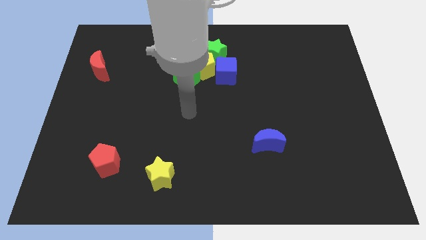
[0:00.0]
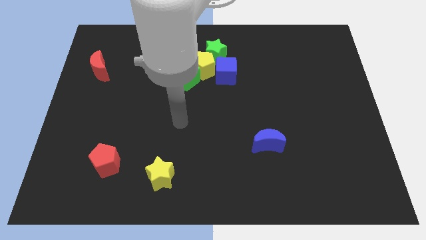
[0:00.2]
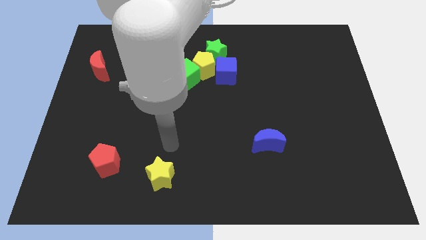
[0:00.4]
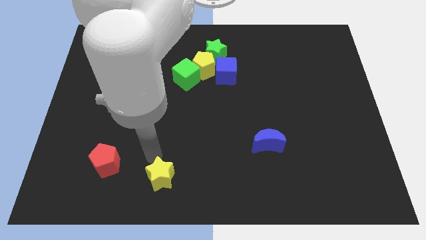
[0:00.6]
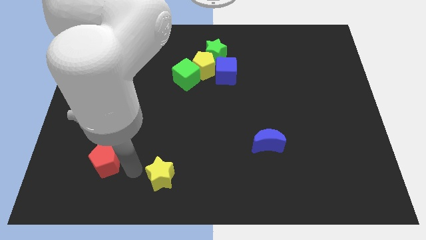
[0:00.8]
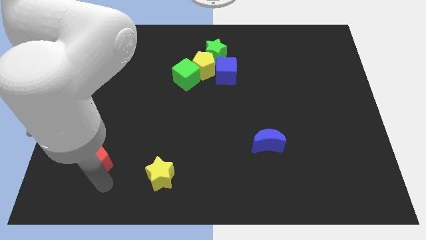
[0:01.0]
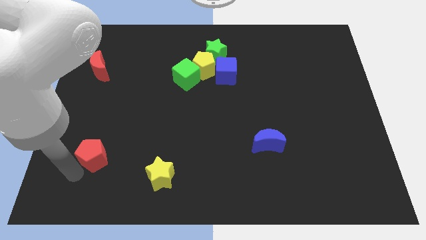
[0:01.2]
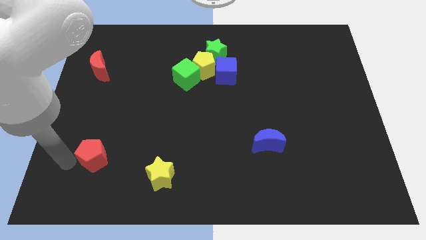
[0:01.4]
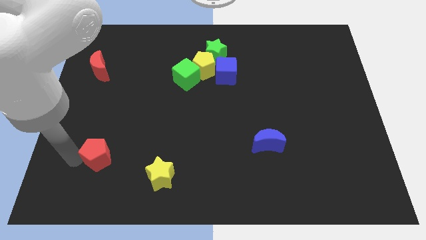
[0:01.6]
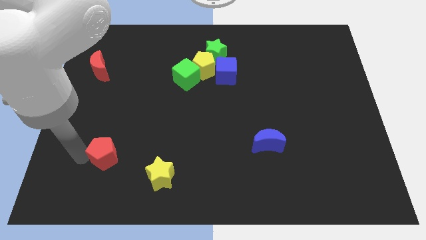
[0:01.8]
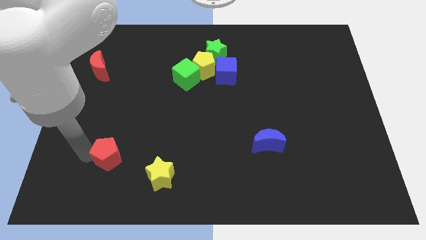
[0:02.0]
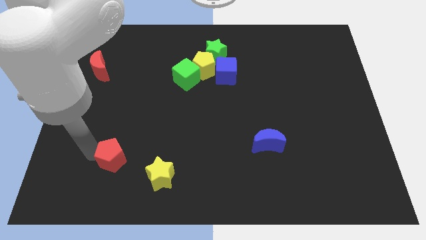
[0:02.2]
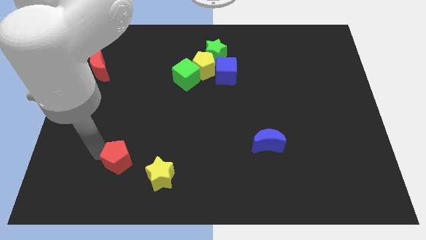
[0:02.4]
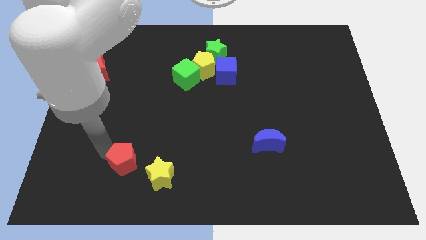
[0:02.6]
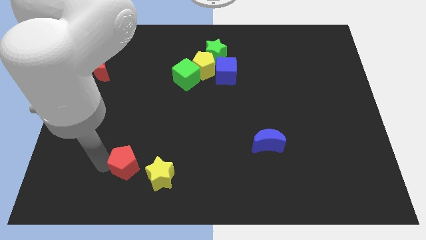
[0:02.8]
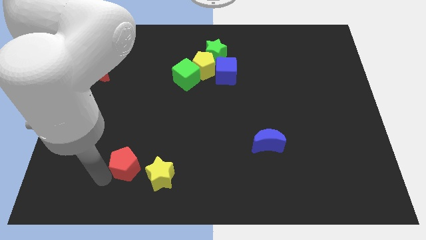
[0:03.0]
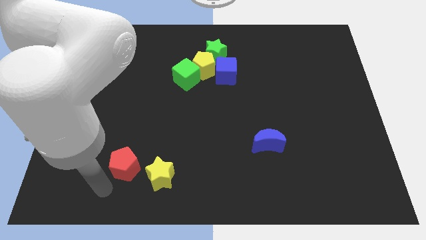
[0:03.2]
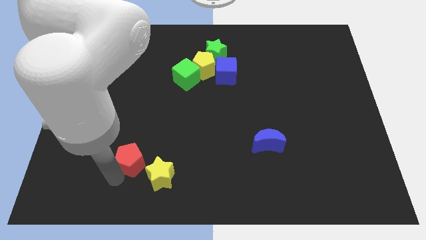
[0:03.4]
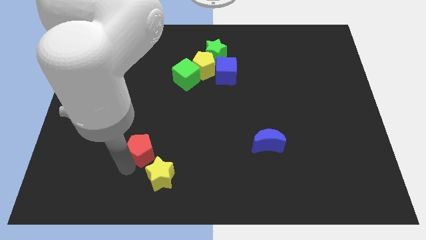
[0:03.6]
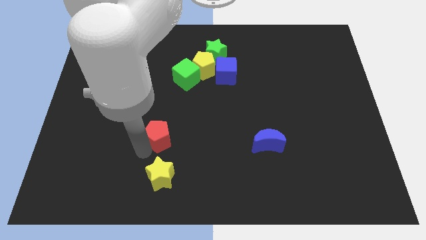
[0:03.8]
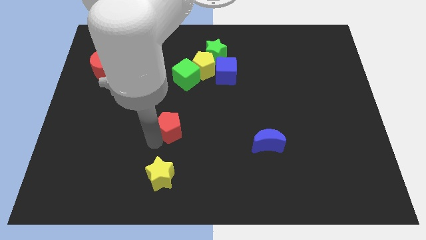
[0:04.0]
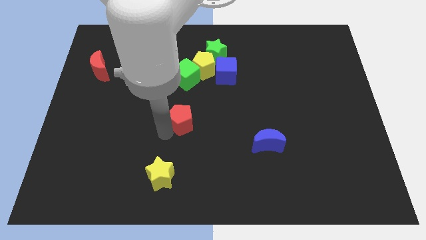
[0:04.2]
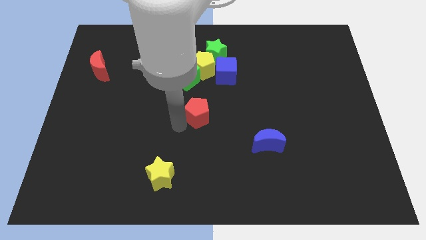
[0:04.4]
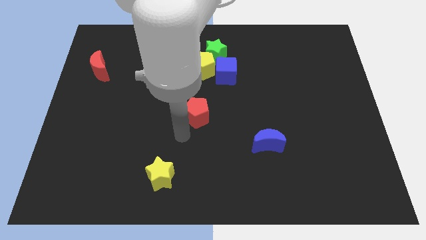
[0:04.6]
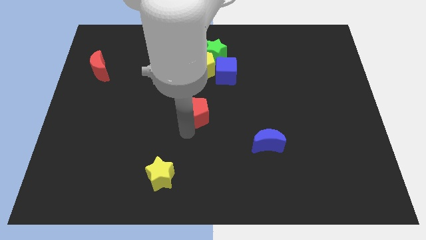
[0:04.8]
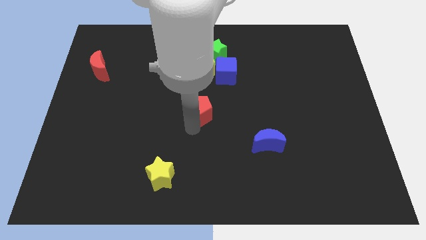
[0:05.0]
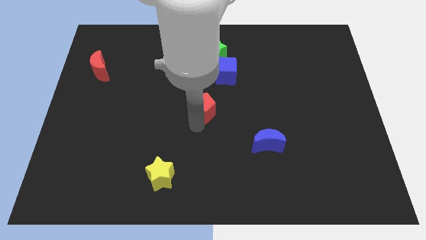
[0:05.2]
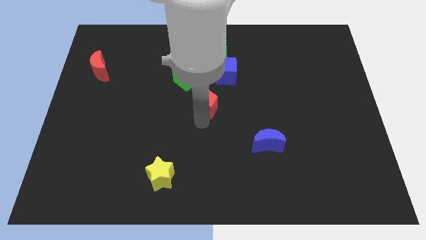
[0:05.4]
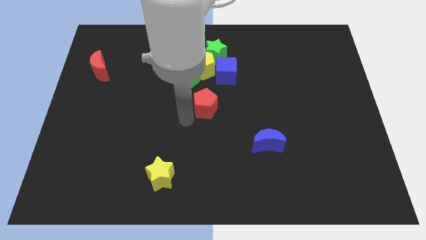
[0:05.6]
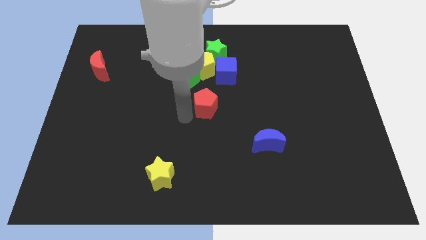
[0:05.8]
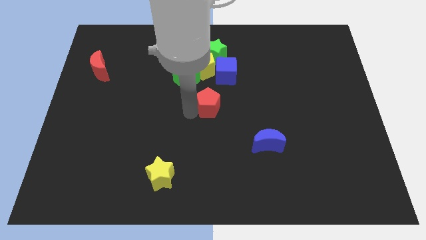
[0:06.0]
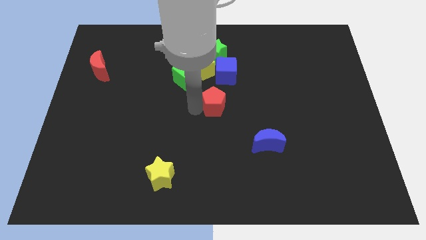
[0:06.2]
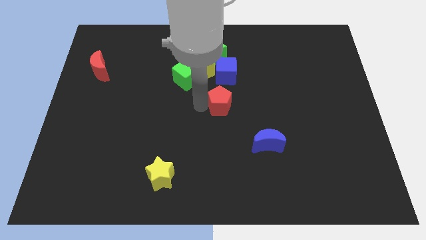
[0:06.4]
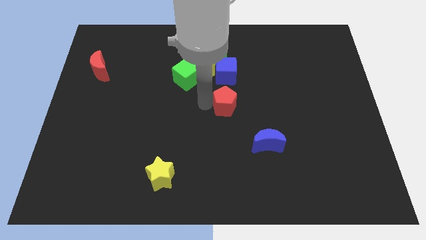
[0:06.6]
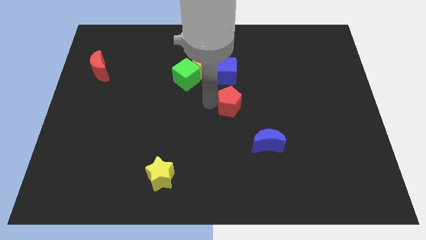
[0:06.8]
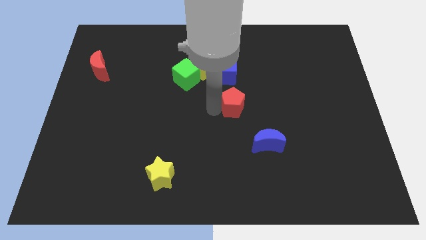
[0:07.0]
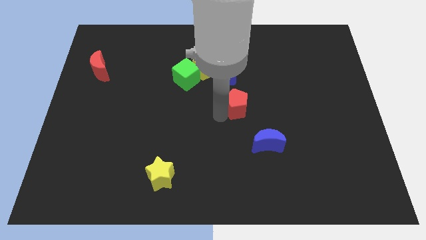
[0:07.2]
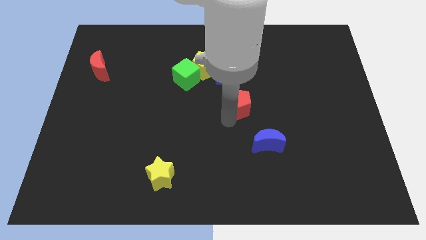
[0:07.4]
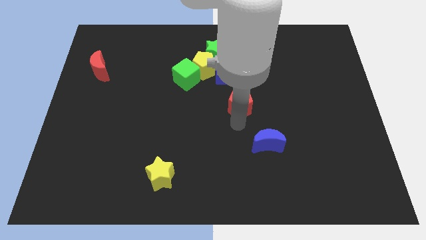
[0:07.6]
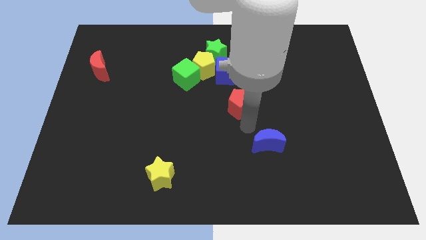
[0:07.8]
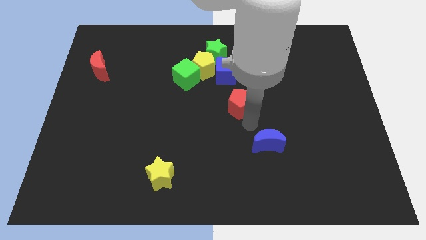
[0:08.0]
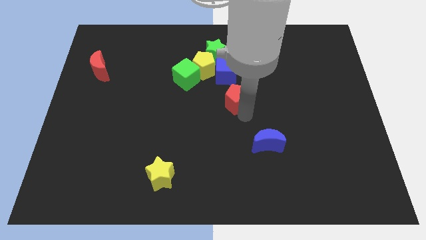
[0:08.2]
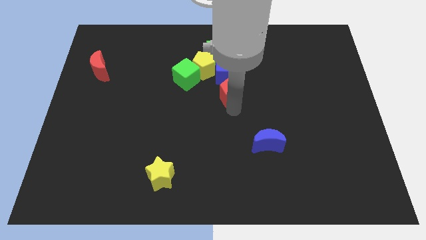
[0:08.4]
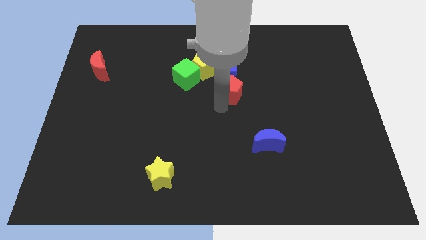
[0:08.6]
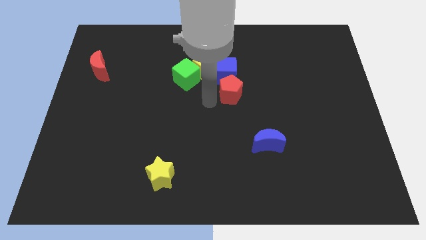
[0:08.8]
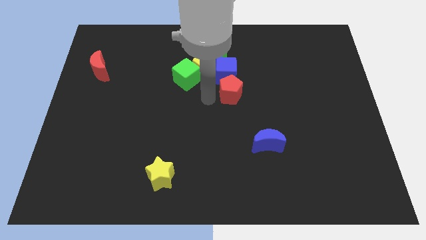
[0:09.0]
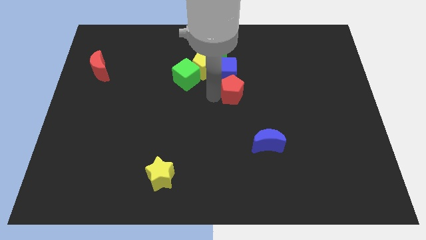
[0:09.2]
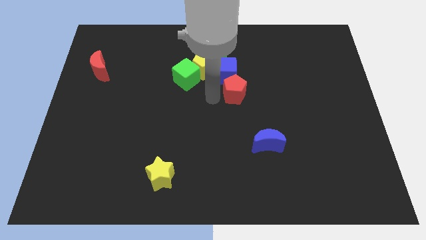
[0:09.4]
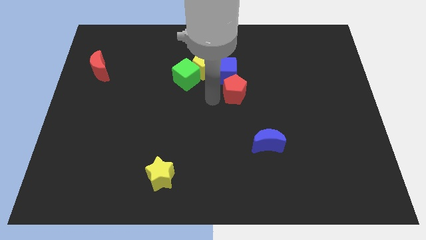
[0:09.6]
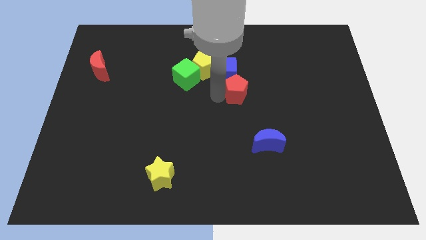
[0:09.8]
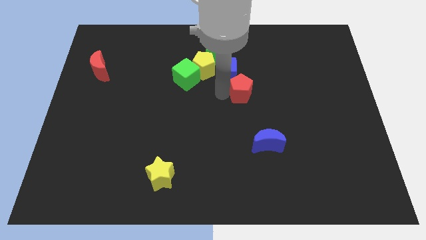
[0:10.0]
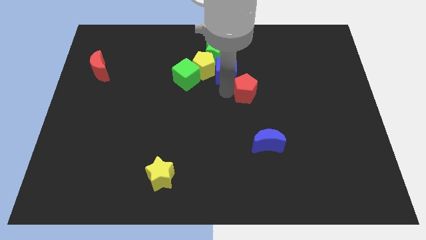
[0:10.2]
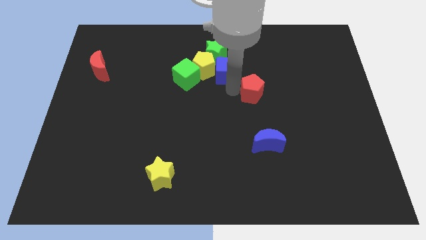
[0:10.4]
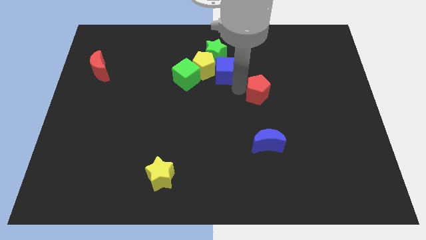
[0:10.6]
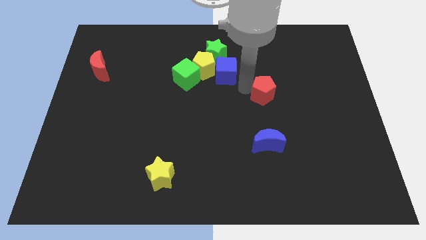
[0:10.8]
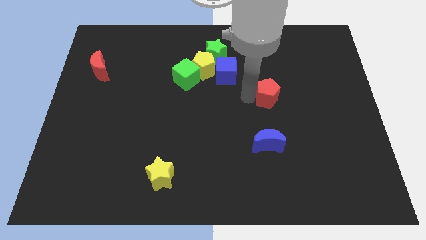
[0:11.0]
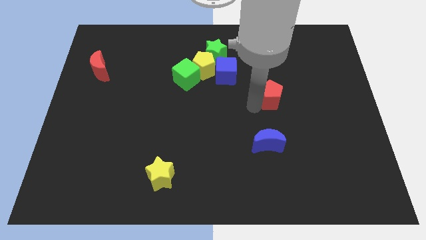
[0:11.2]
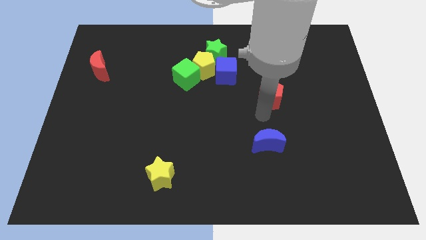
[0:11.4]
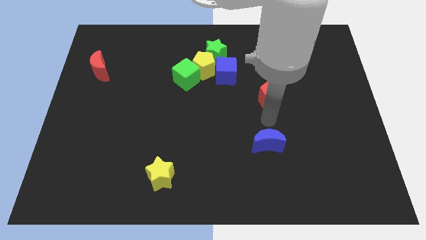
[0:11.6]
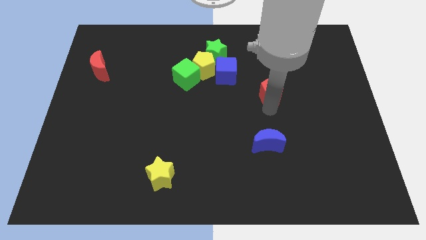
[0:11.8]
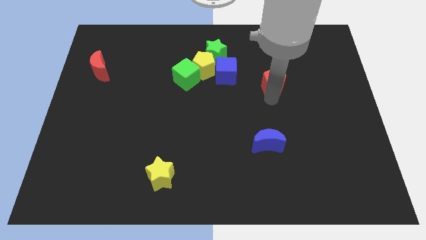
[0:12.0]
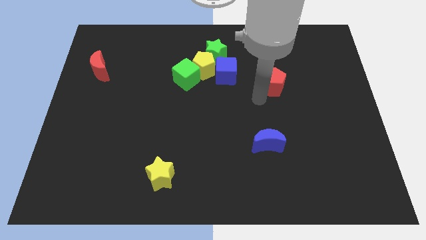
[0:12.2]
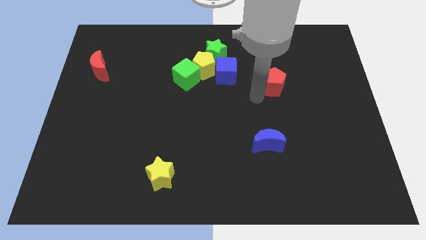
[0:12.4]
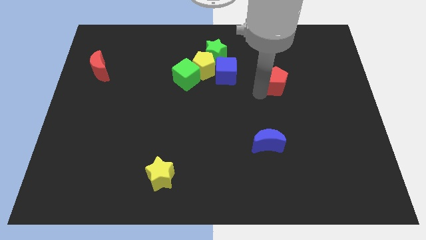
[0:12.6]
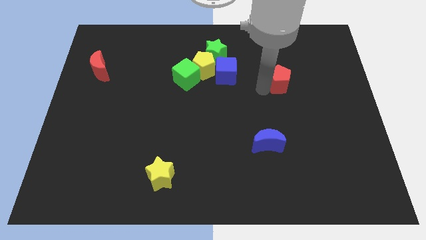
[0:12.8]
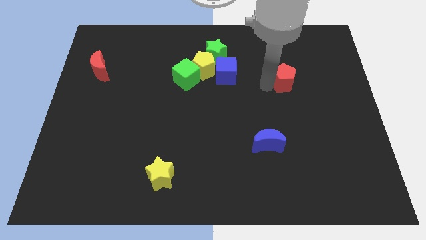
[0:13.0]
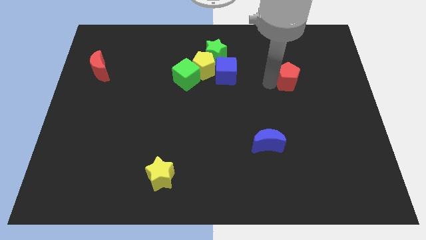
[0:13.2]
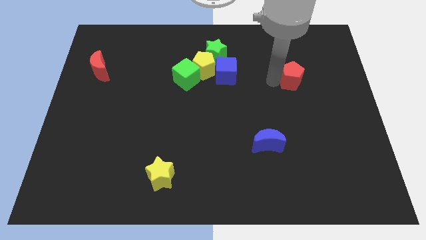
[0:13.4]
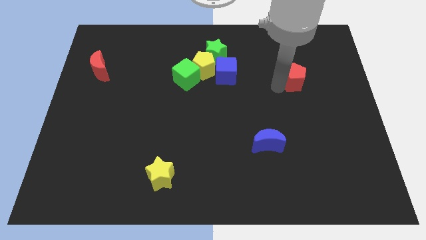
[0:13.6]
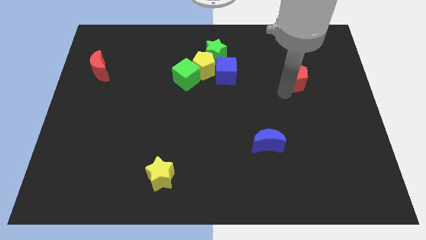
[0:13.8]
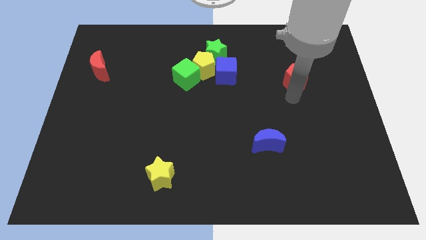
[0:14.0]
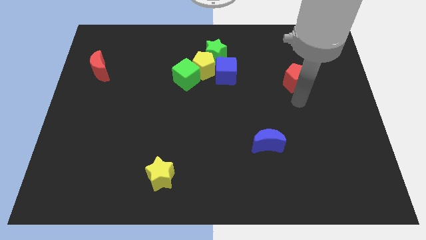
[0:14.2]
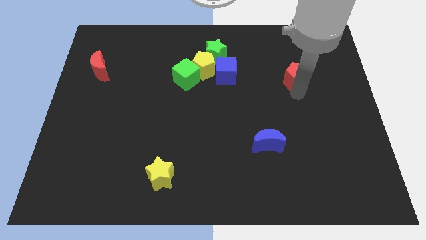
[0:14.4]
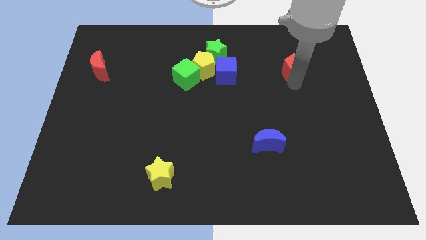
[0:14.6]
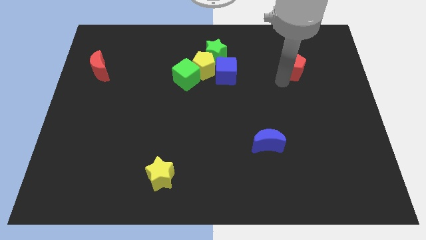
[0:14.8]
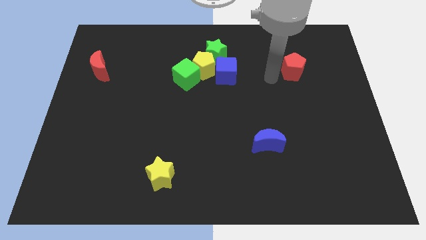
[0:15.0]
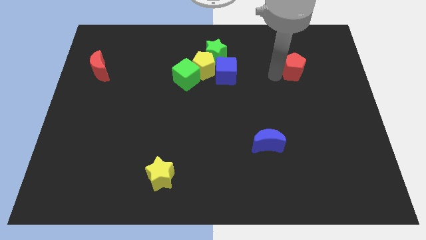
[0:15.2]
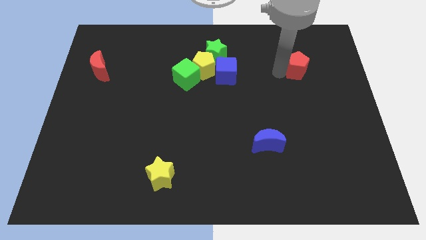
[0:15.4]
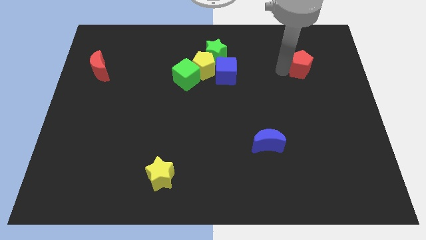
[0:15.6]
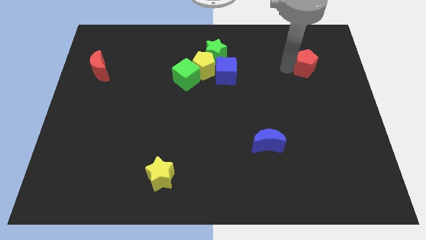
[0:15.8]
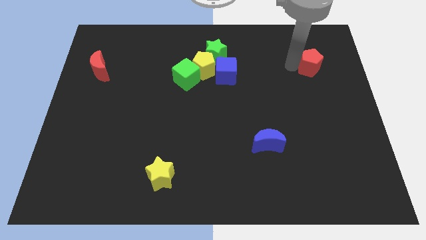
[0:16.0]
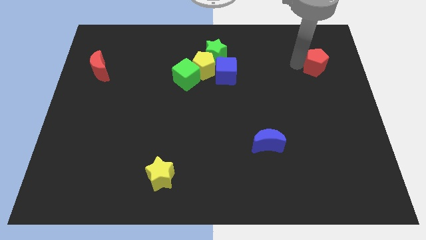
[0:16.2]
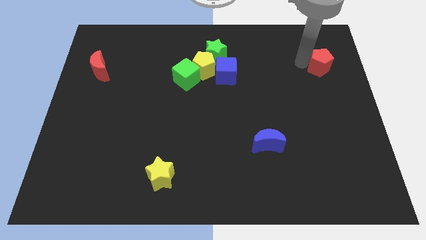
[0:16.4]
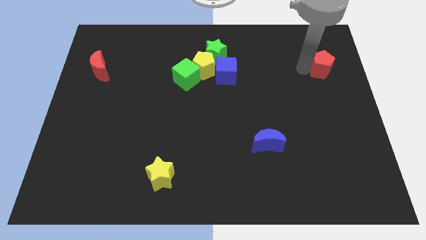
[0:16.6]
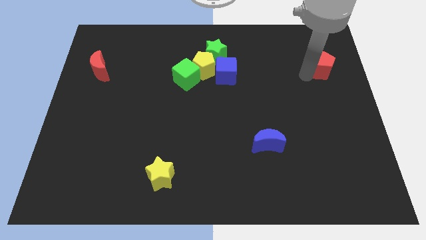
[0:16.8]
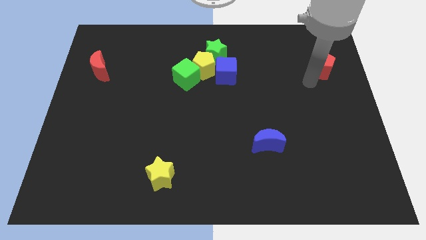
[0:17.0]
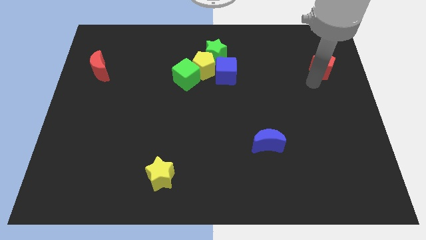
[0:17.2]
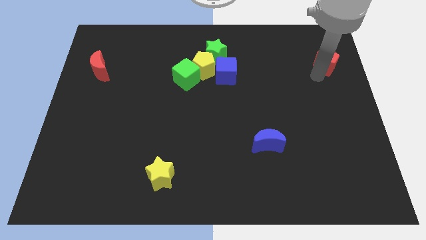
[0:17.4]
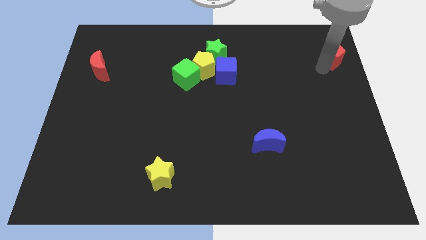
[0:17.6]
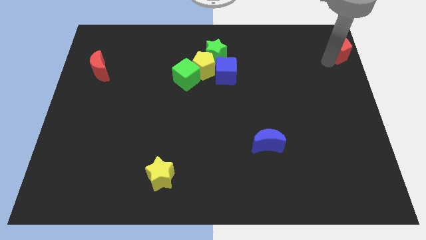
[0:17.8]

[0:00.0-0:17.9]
put the red pentagon to the upper right corner
